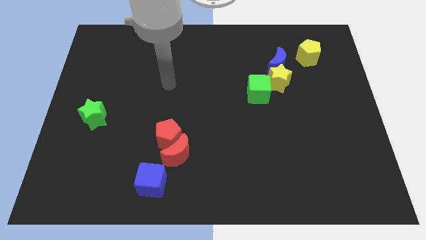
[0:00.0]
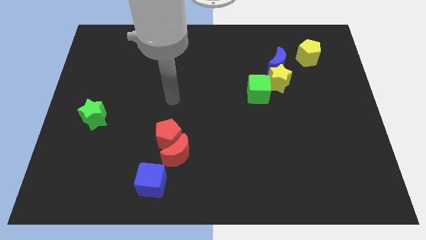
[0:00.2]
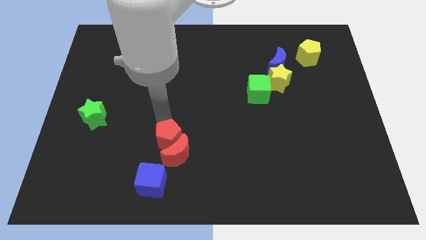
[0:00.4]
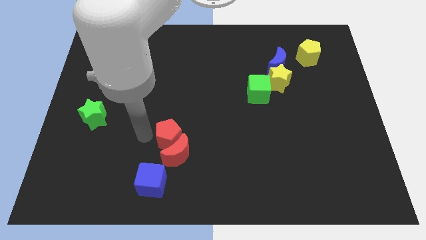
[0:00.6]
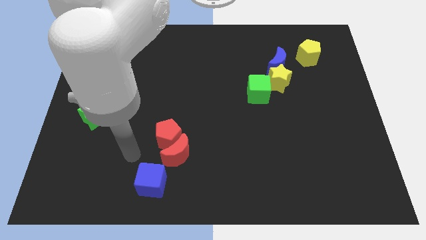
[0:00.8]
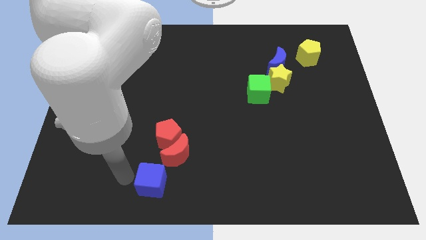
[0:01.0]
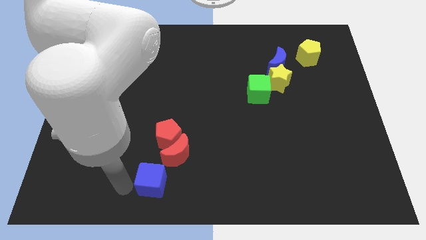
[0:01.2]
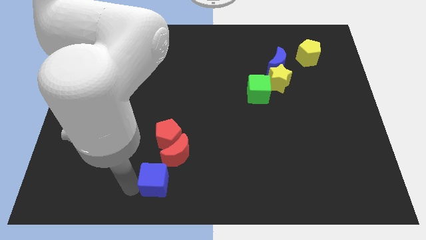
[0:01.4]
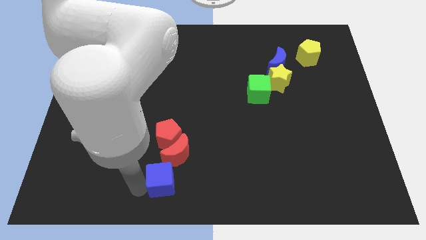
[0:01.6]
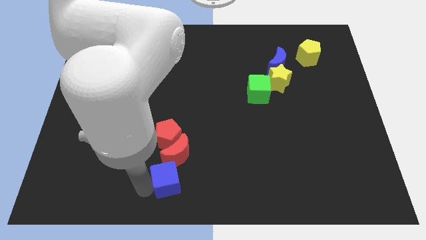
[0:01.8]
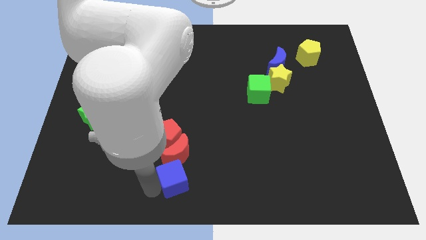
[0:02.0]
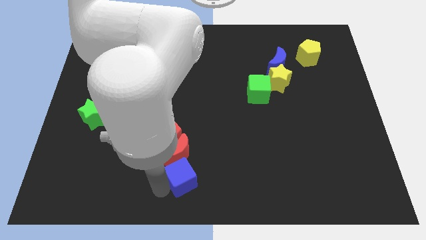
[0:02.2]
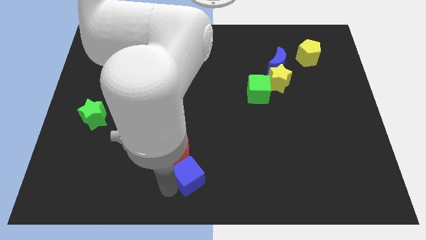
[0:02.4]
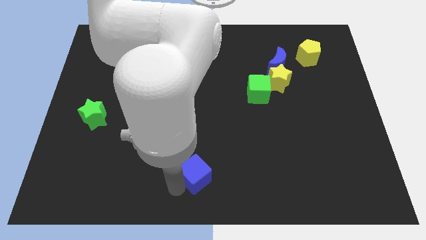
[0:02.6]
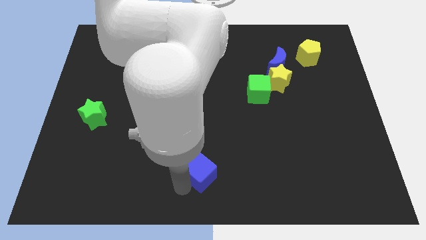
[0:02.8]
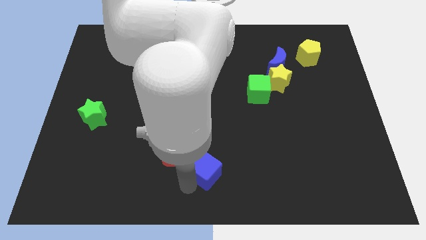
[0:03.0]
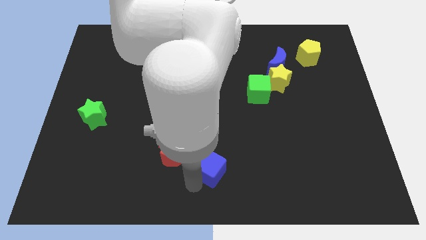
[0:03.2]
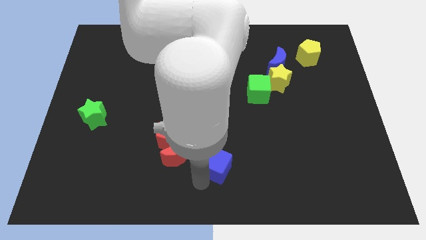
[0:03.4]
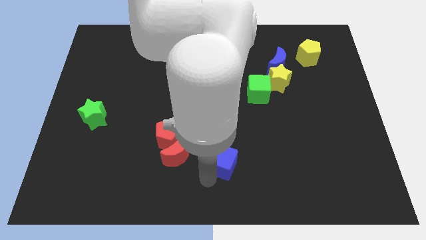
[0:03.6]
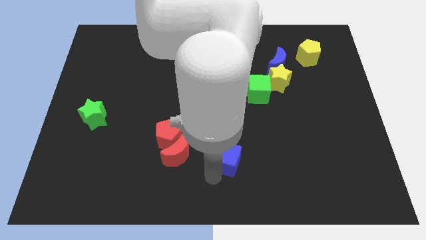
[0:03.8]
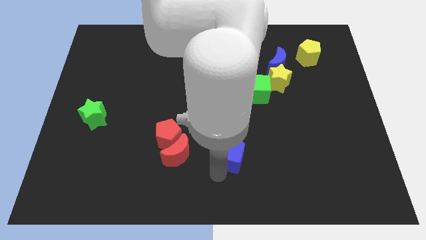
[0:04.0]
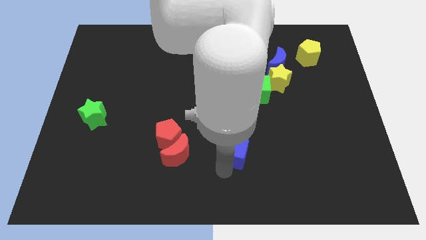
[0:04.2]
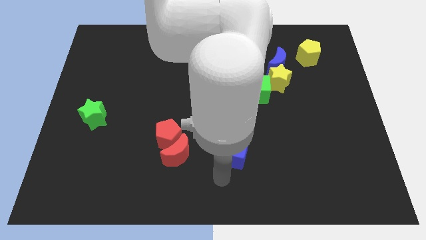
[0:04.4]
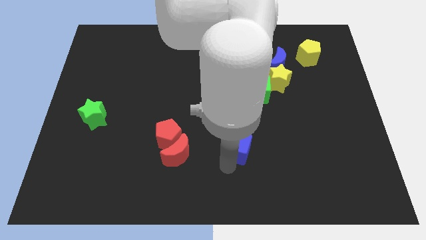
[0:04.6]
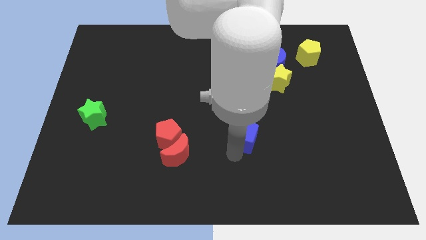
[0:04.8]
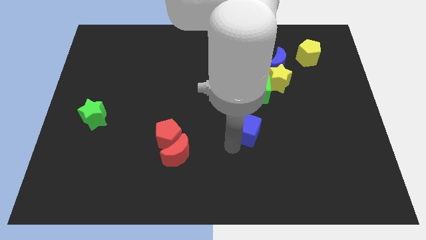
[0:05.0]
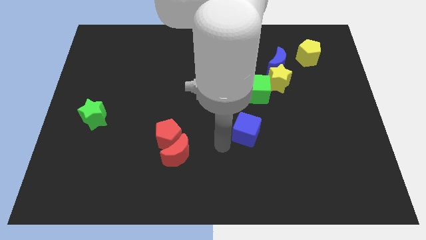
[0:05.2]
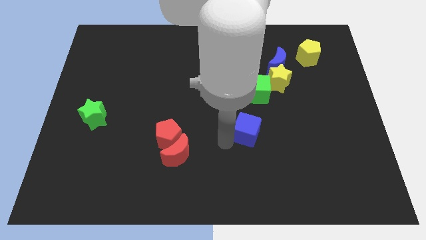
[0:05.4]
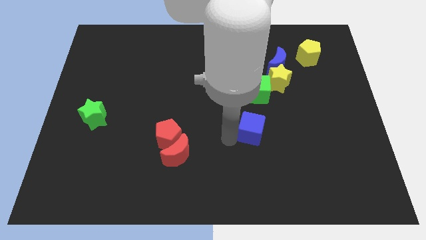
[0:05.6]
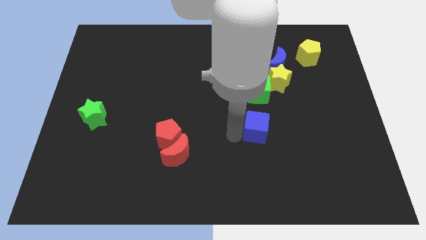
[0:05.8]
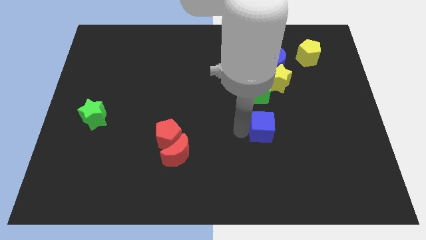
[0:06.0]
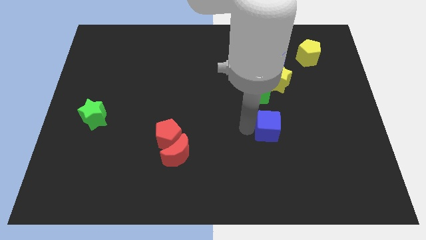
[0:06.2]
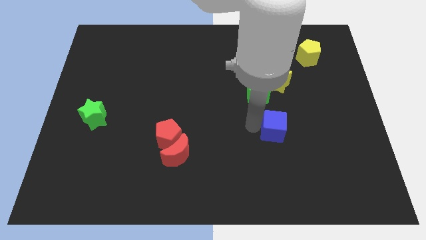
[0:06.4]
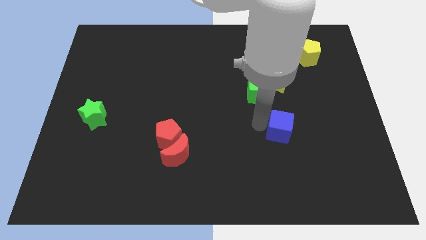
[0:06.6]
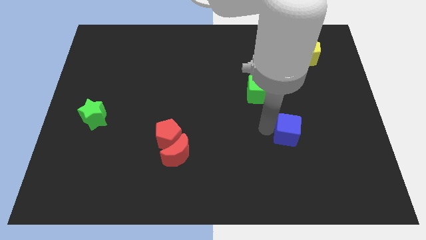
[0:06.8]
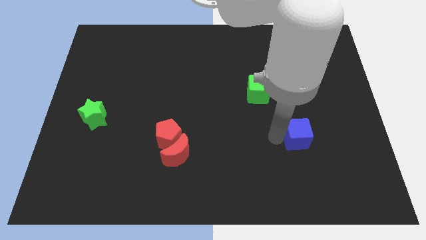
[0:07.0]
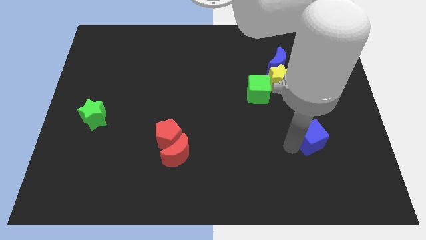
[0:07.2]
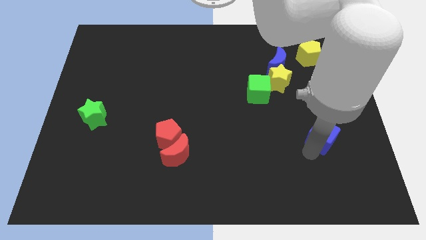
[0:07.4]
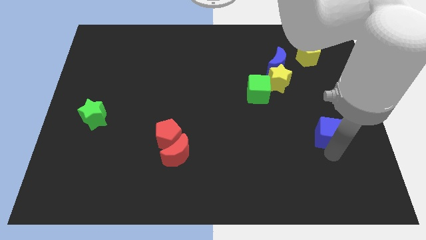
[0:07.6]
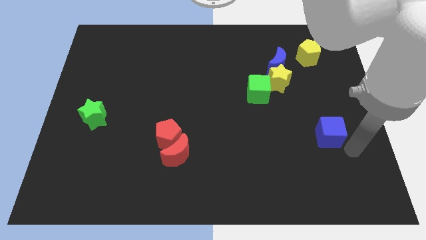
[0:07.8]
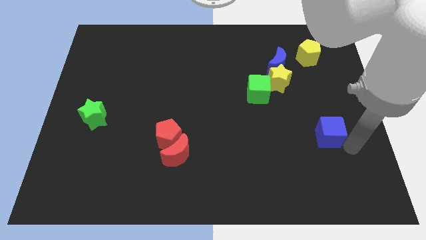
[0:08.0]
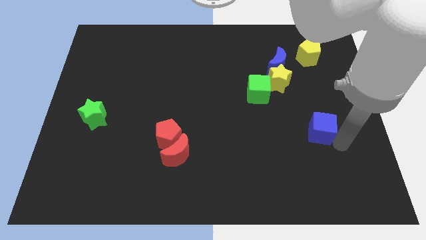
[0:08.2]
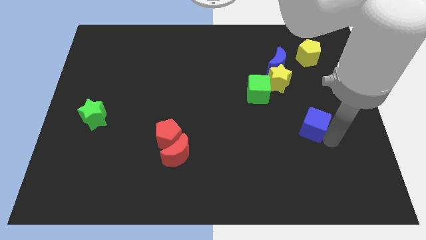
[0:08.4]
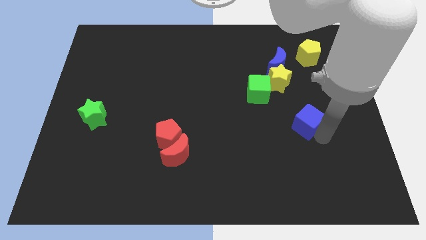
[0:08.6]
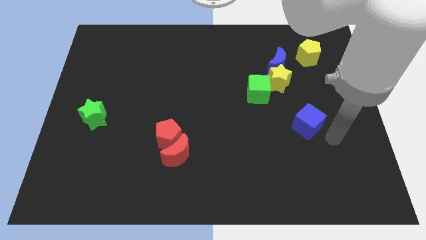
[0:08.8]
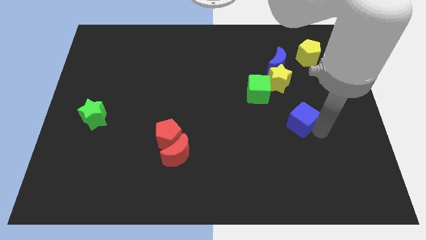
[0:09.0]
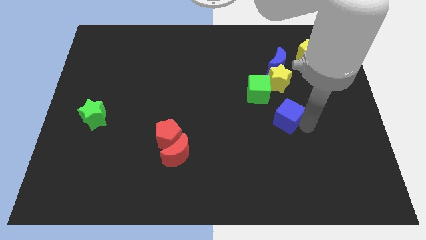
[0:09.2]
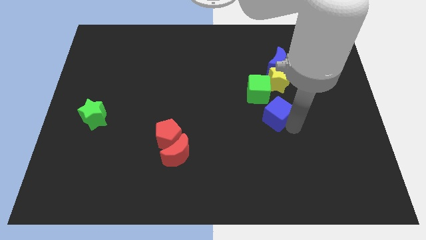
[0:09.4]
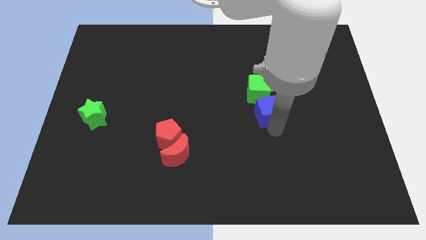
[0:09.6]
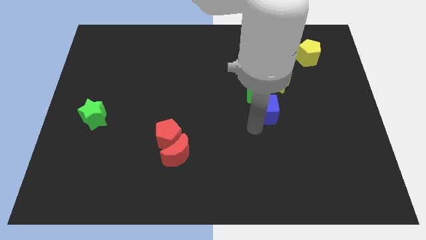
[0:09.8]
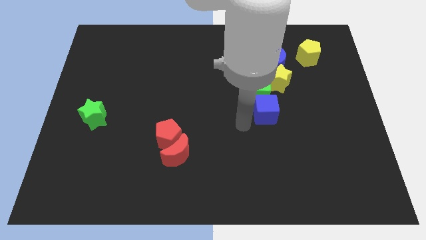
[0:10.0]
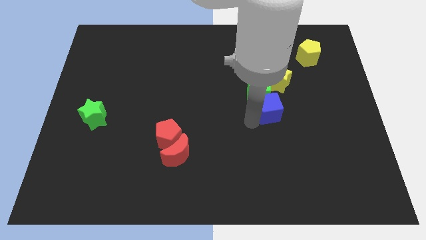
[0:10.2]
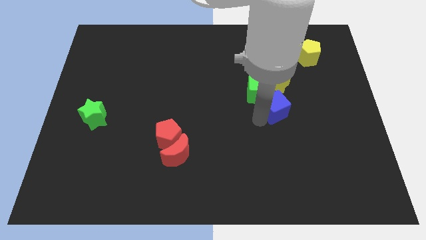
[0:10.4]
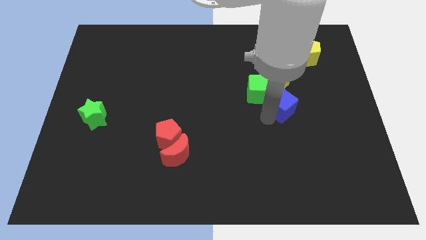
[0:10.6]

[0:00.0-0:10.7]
move the blue cube just right of the green cube

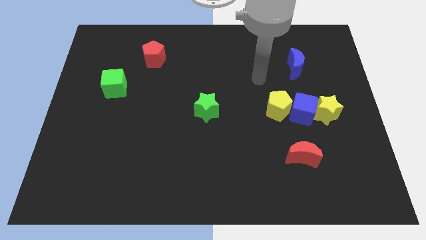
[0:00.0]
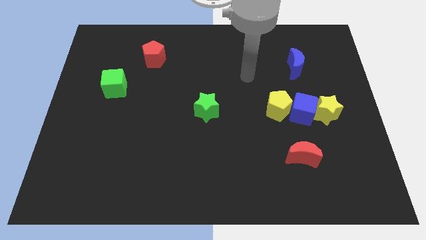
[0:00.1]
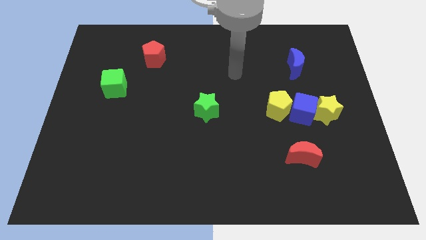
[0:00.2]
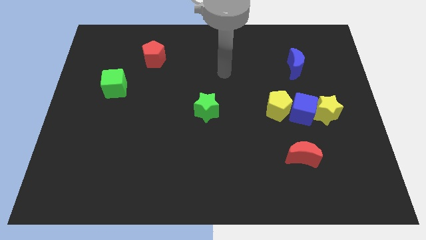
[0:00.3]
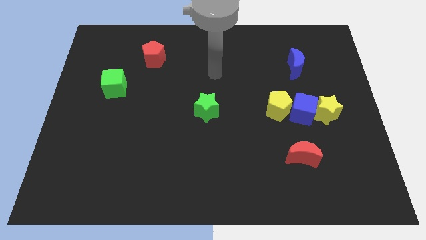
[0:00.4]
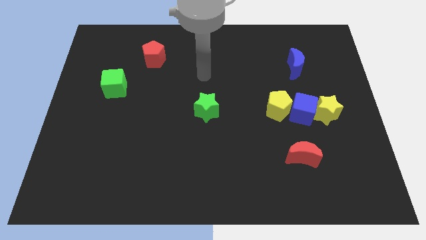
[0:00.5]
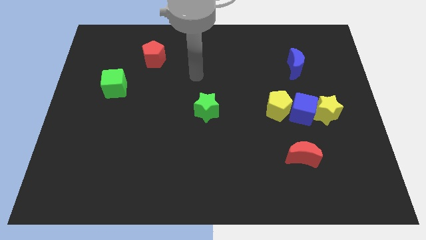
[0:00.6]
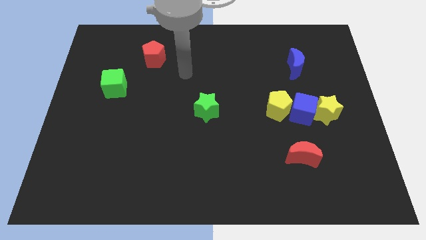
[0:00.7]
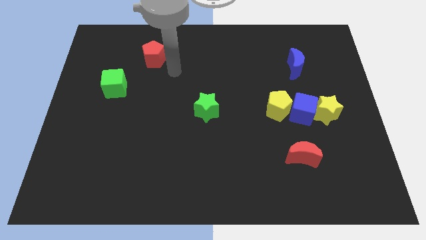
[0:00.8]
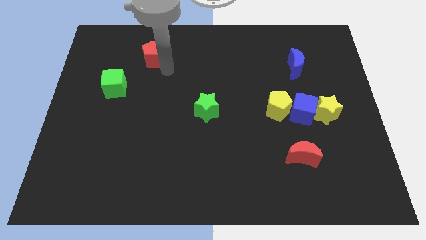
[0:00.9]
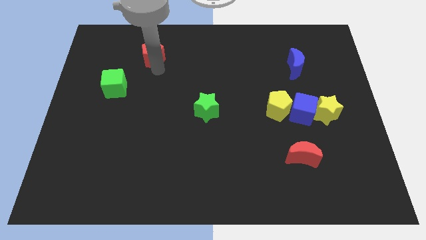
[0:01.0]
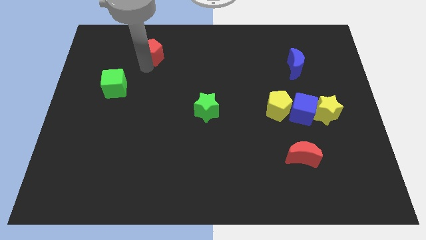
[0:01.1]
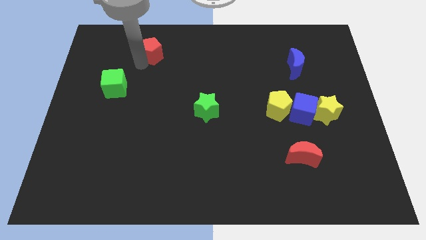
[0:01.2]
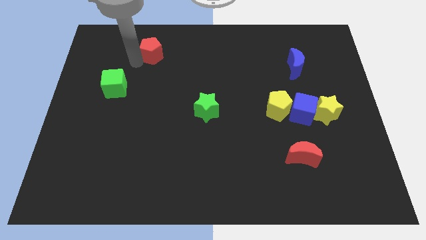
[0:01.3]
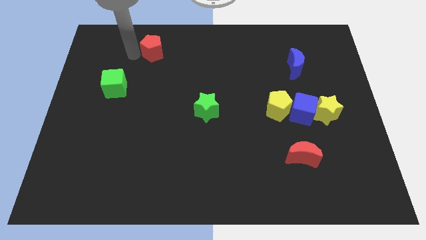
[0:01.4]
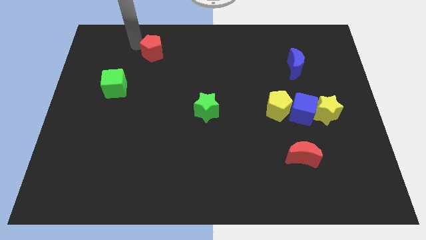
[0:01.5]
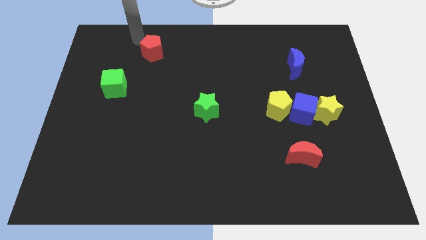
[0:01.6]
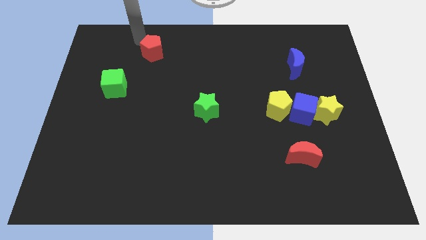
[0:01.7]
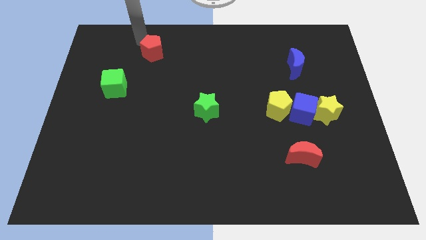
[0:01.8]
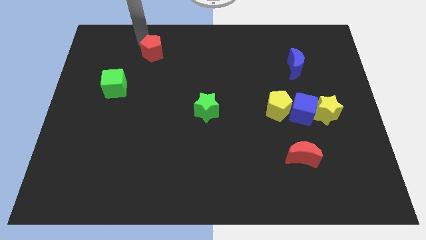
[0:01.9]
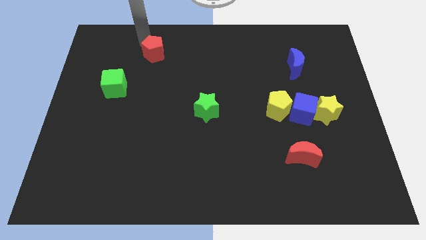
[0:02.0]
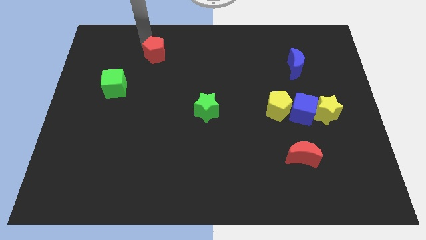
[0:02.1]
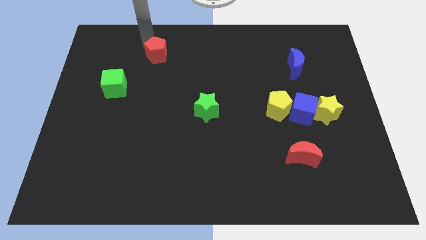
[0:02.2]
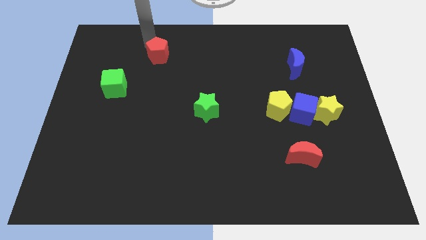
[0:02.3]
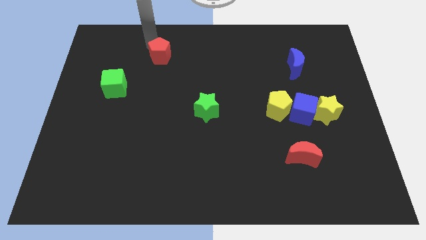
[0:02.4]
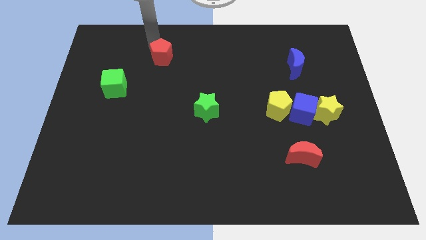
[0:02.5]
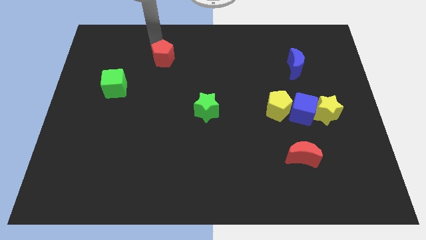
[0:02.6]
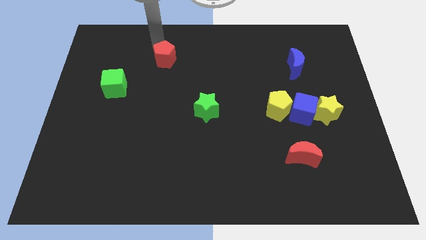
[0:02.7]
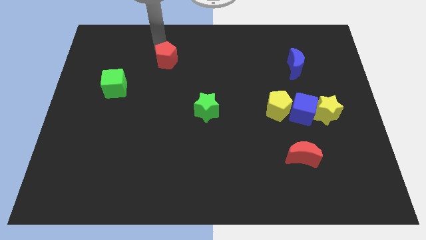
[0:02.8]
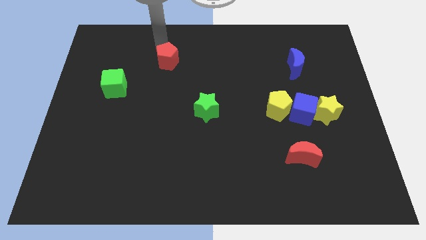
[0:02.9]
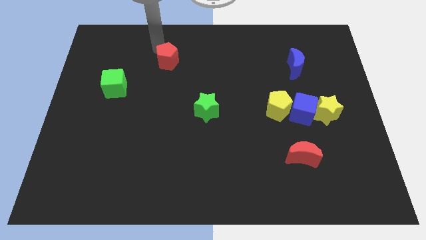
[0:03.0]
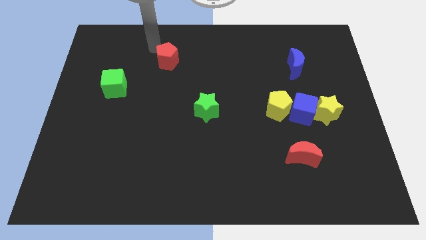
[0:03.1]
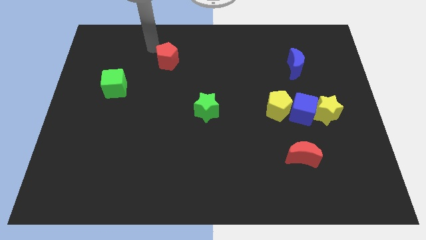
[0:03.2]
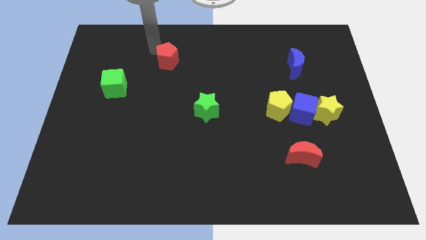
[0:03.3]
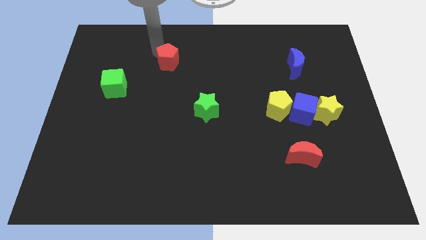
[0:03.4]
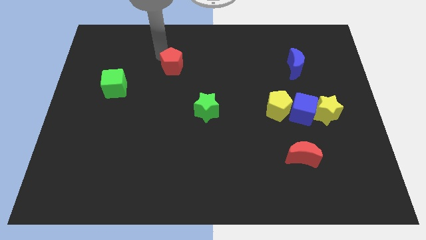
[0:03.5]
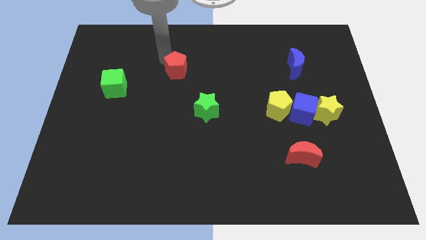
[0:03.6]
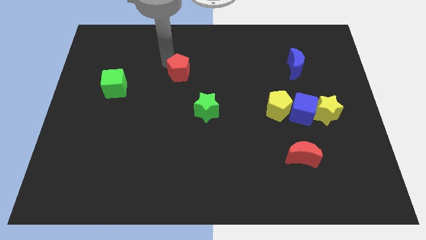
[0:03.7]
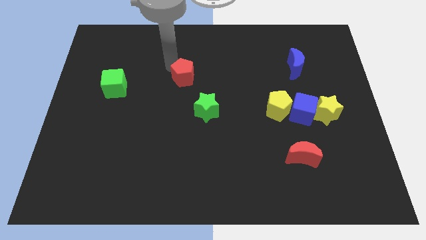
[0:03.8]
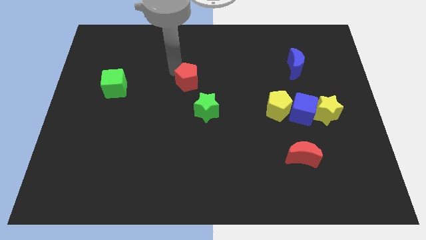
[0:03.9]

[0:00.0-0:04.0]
move the red pentagon to the top side of the green star
